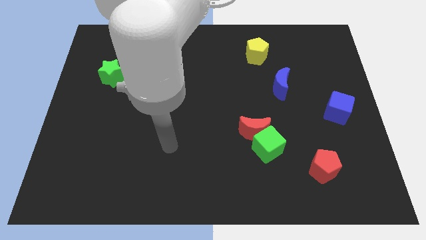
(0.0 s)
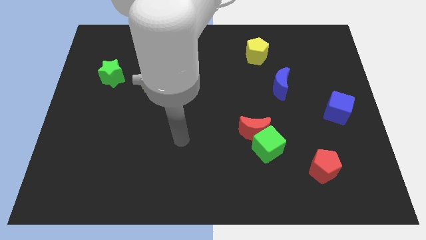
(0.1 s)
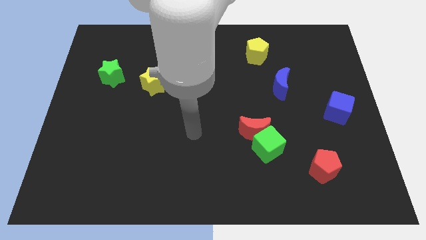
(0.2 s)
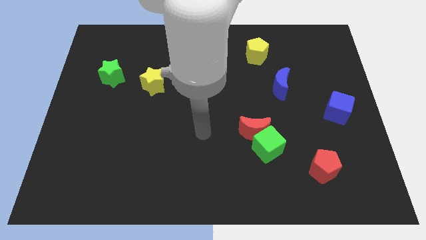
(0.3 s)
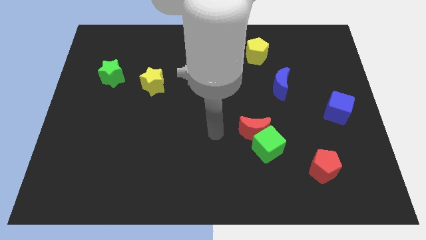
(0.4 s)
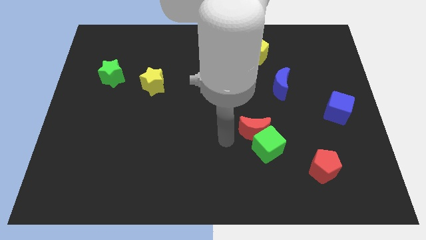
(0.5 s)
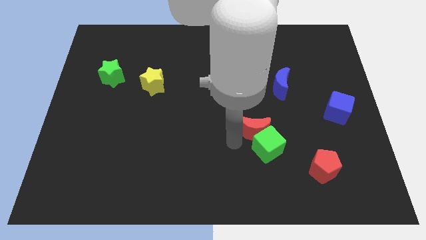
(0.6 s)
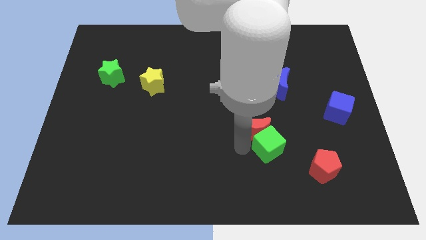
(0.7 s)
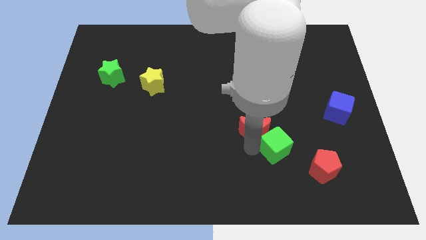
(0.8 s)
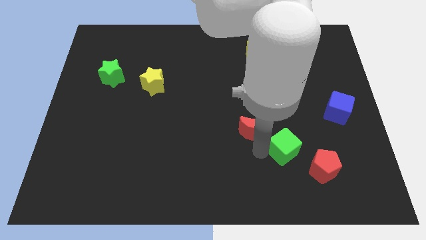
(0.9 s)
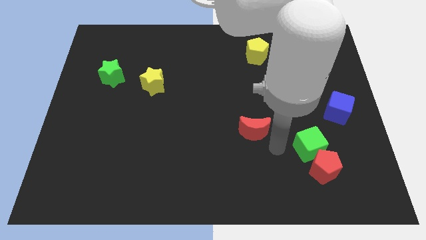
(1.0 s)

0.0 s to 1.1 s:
pull the red moon apart from the green cube

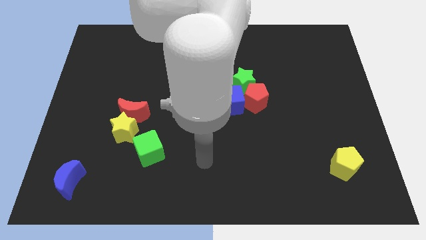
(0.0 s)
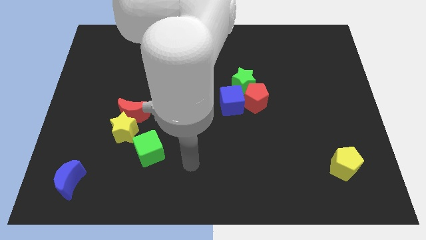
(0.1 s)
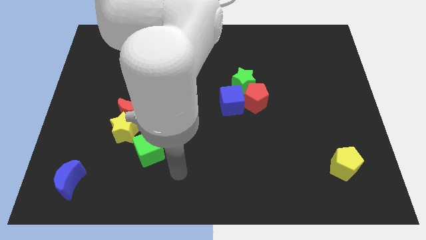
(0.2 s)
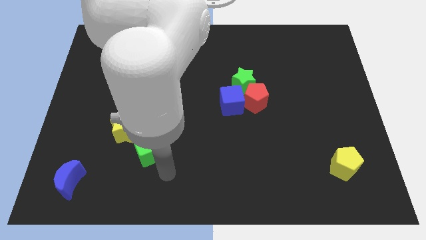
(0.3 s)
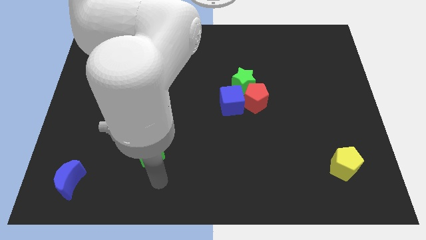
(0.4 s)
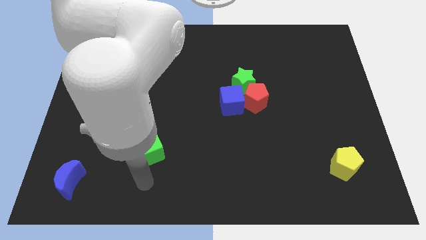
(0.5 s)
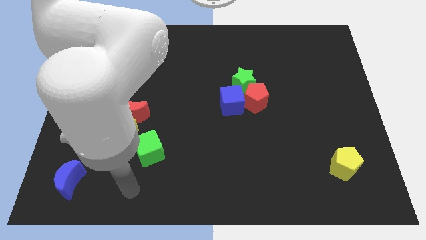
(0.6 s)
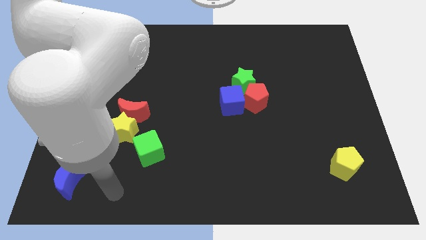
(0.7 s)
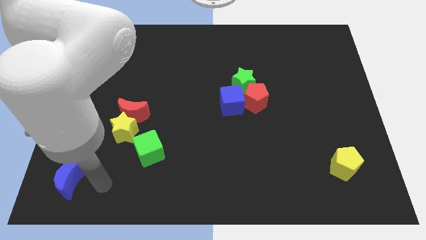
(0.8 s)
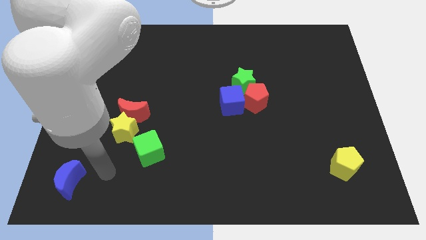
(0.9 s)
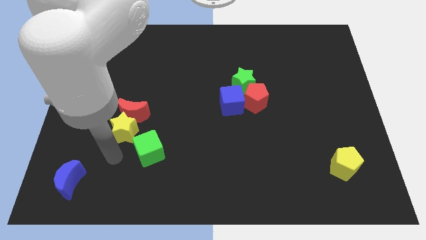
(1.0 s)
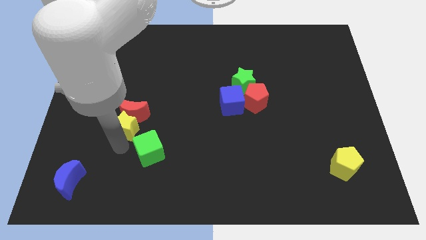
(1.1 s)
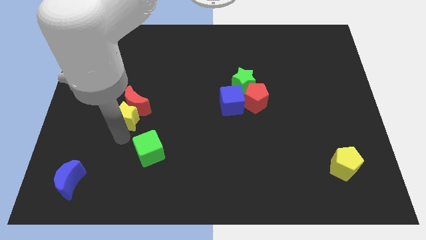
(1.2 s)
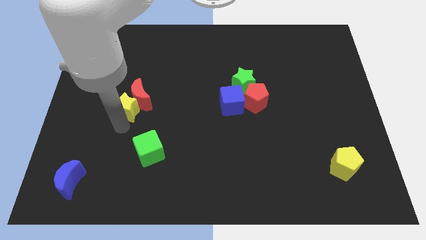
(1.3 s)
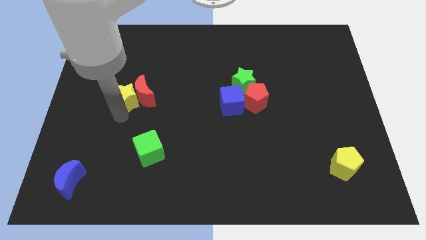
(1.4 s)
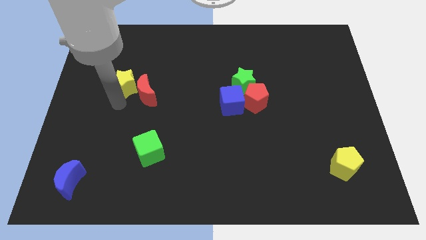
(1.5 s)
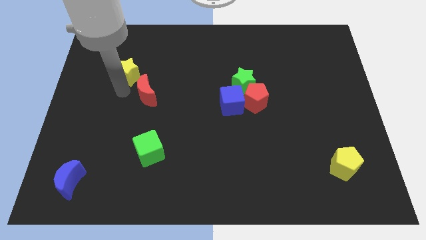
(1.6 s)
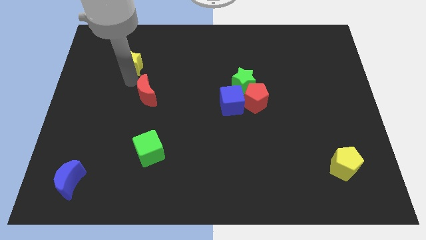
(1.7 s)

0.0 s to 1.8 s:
move the red moon away from the yellow star

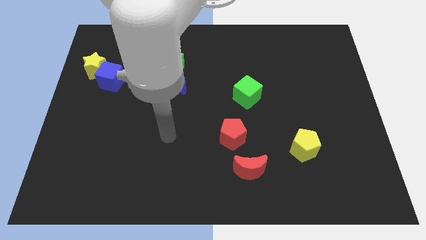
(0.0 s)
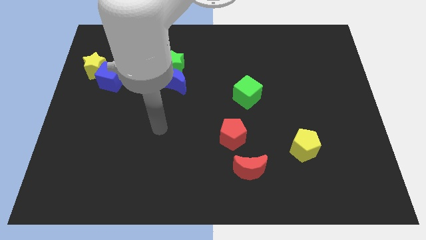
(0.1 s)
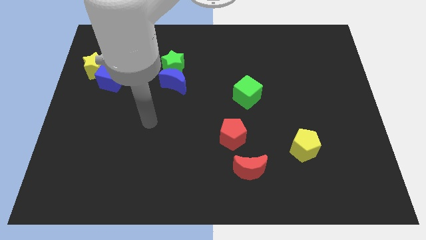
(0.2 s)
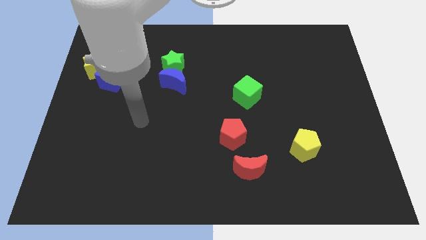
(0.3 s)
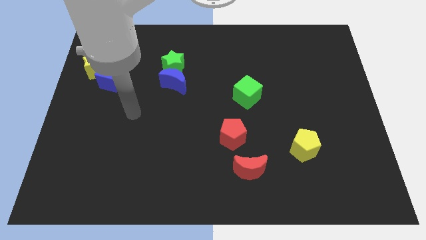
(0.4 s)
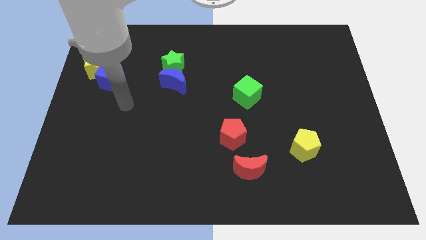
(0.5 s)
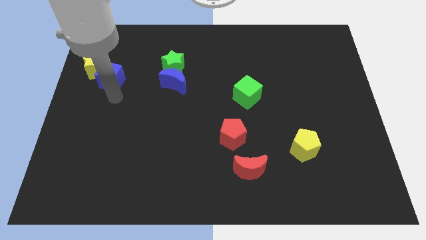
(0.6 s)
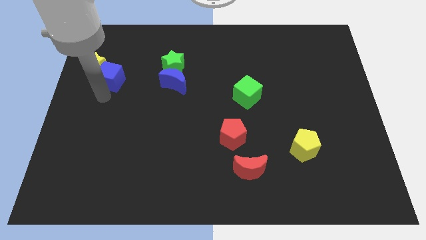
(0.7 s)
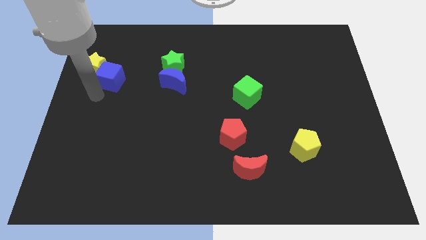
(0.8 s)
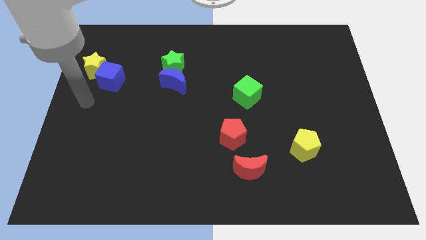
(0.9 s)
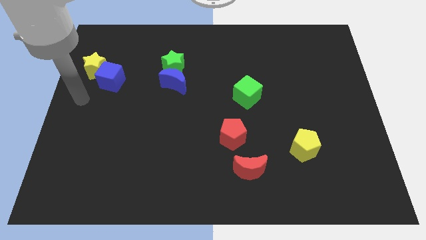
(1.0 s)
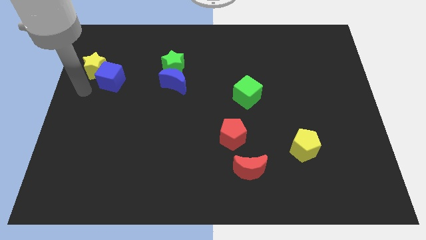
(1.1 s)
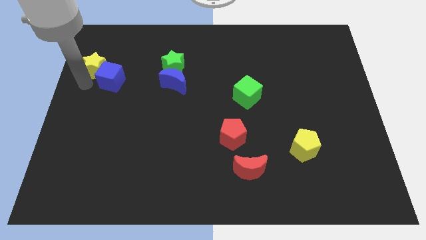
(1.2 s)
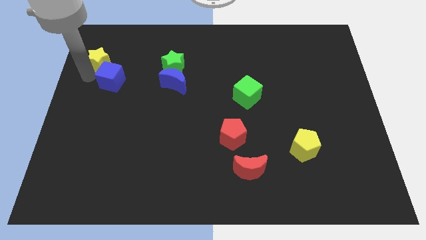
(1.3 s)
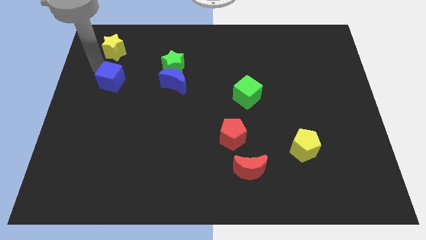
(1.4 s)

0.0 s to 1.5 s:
separate the blue cube from the yellow star

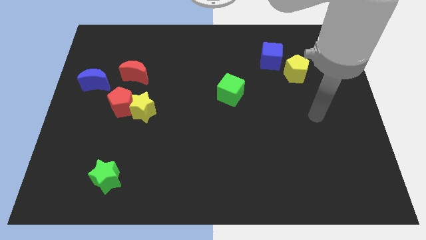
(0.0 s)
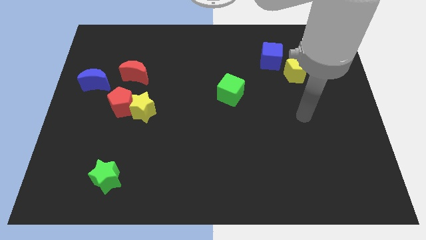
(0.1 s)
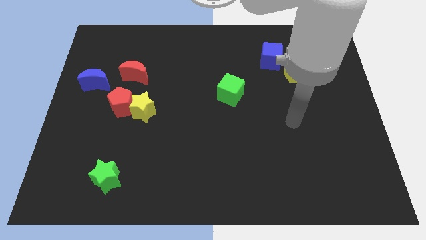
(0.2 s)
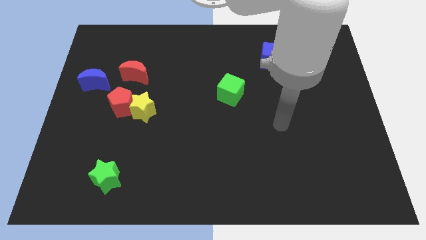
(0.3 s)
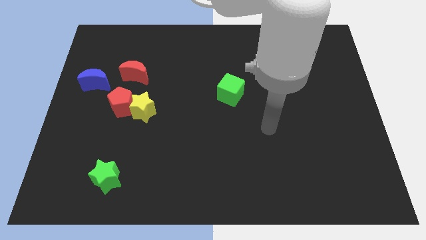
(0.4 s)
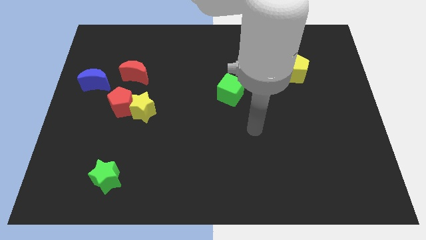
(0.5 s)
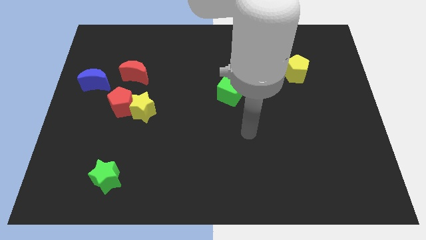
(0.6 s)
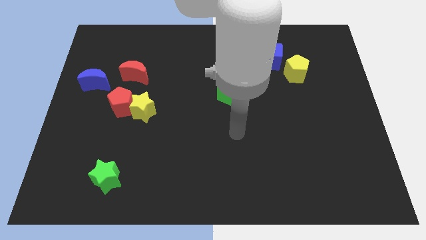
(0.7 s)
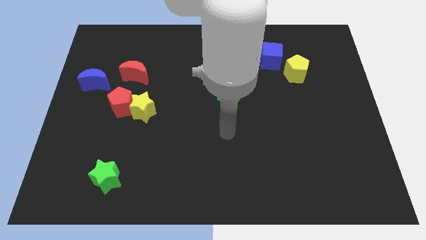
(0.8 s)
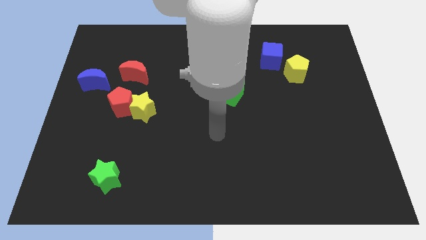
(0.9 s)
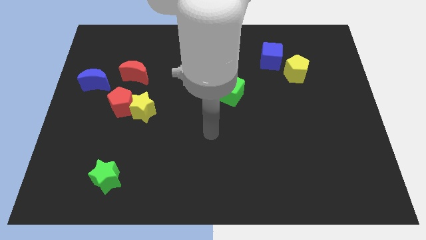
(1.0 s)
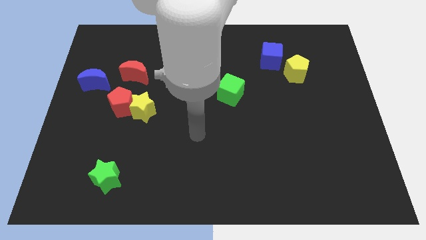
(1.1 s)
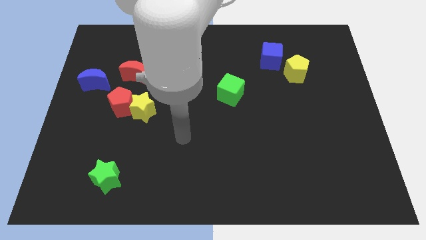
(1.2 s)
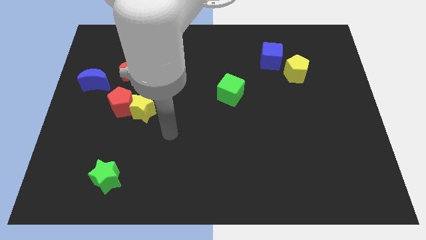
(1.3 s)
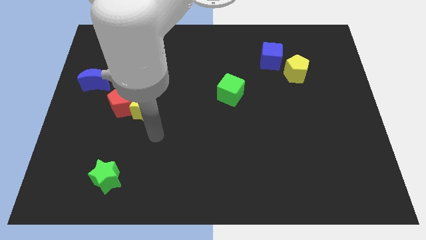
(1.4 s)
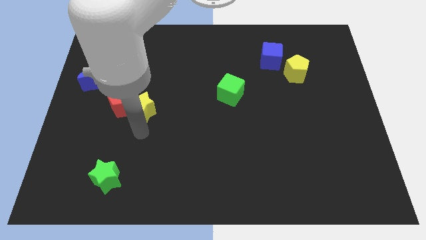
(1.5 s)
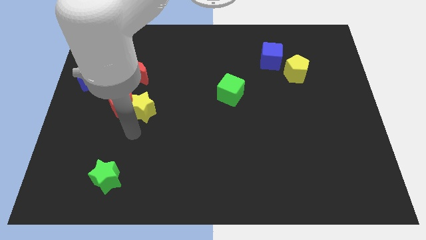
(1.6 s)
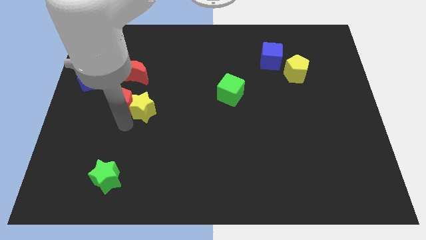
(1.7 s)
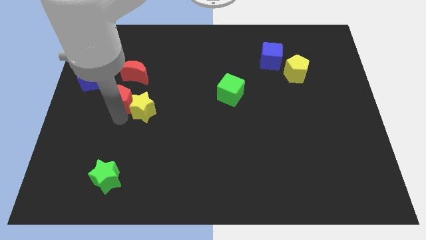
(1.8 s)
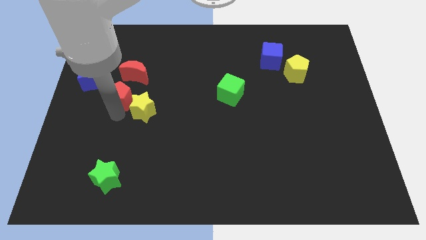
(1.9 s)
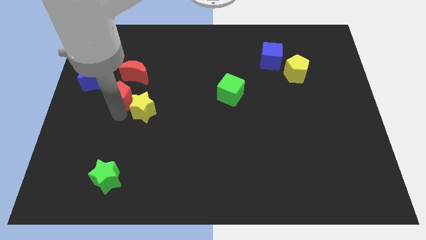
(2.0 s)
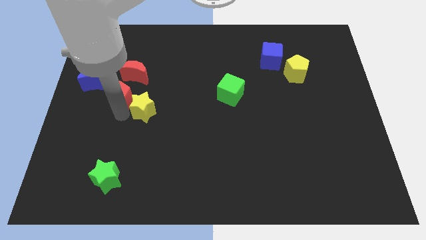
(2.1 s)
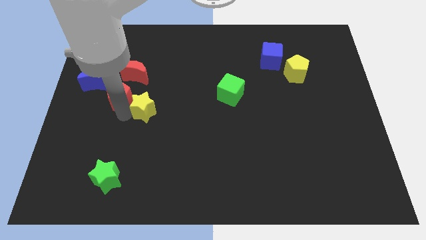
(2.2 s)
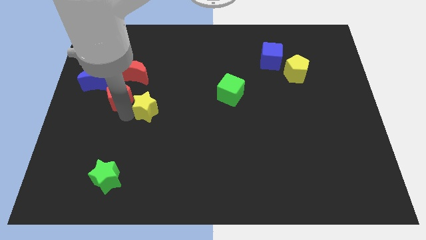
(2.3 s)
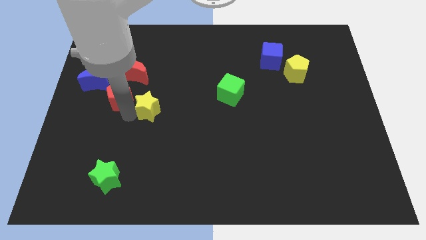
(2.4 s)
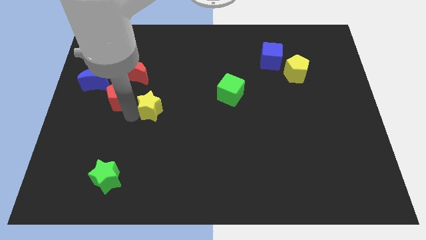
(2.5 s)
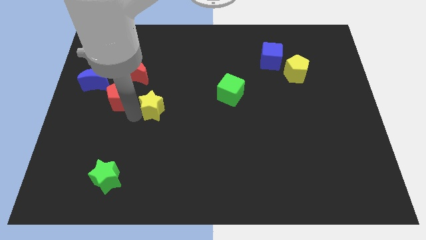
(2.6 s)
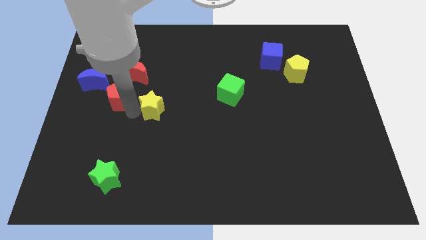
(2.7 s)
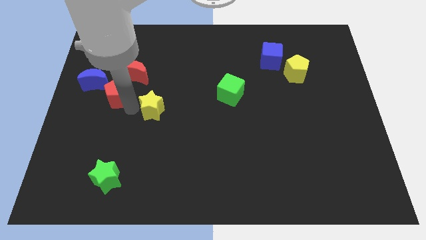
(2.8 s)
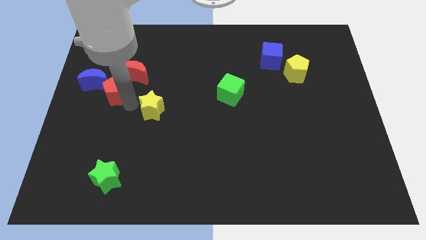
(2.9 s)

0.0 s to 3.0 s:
move the yellow star away from the red pentagon

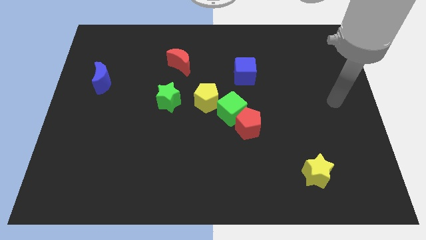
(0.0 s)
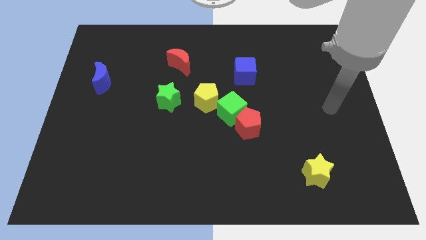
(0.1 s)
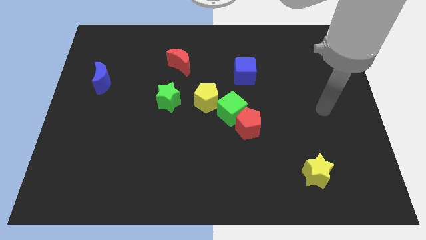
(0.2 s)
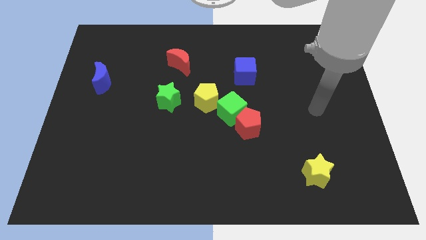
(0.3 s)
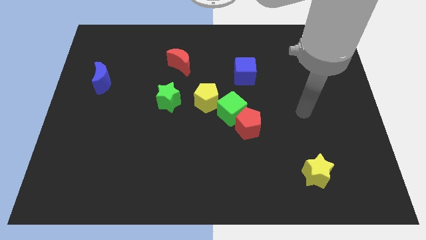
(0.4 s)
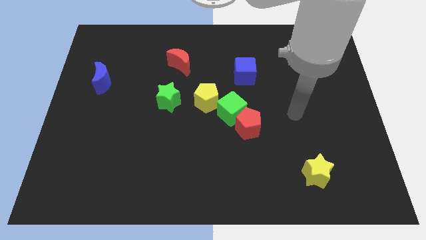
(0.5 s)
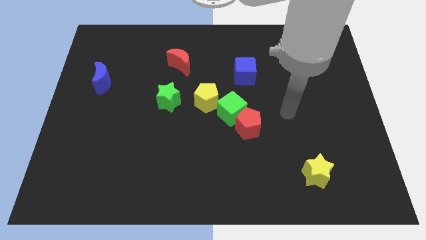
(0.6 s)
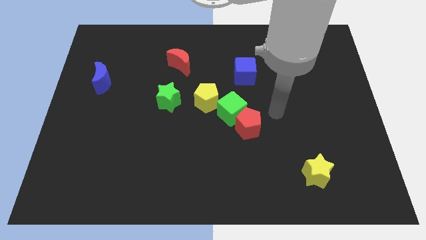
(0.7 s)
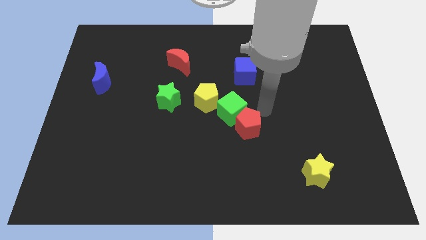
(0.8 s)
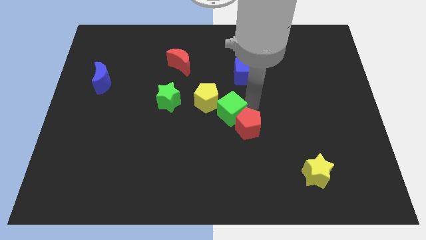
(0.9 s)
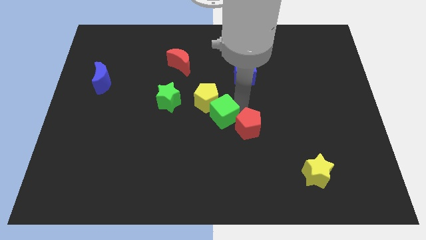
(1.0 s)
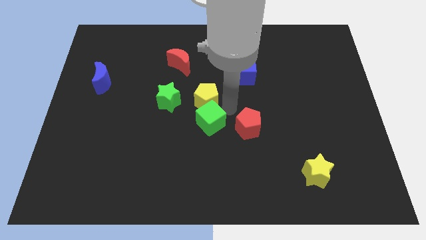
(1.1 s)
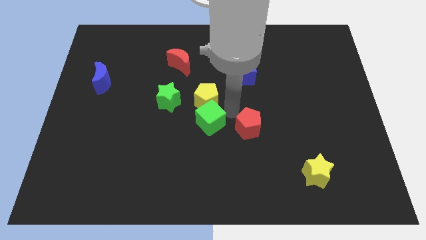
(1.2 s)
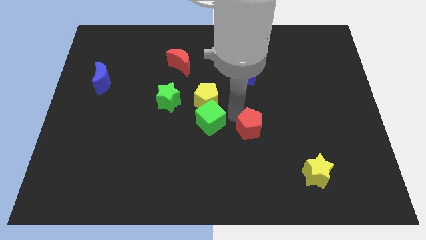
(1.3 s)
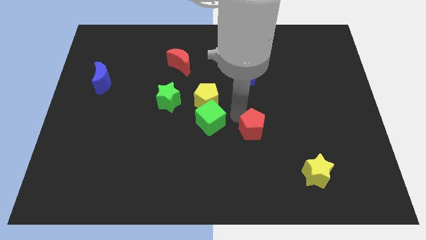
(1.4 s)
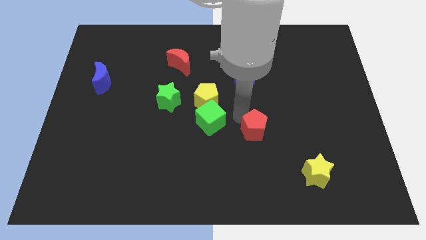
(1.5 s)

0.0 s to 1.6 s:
separate the red pentagon from the green cube

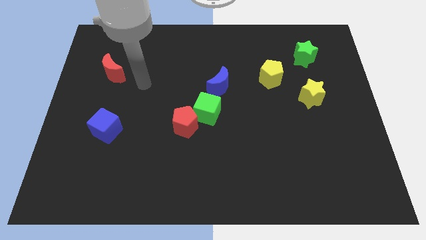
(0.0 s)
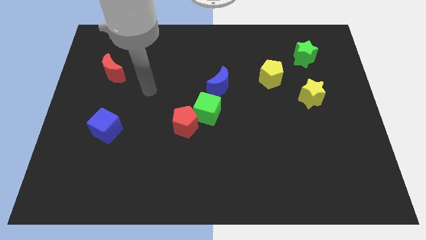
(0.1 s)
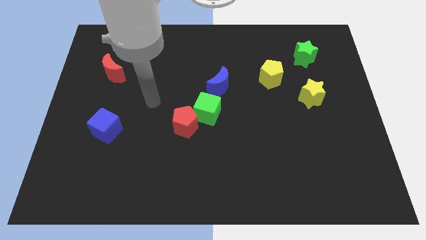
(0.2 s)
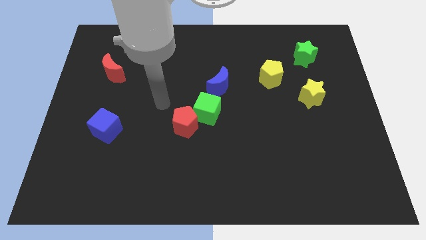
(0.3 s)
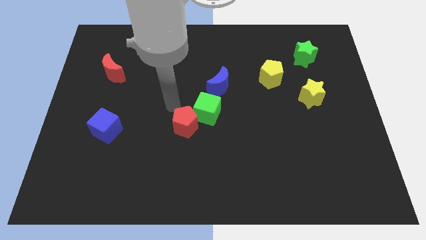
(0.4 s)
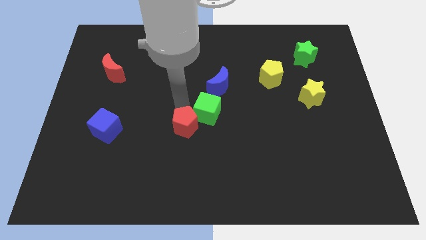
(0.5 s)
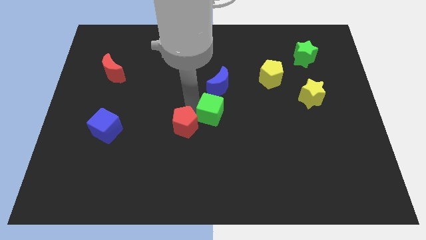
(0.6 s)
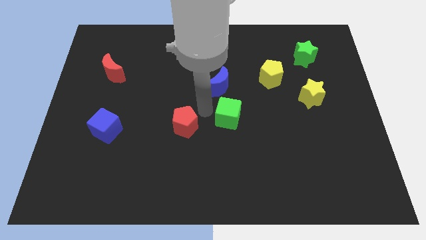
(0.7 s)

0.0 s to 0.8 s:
move the red pentagon away from the green cube
